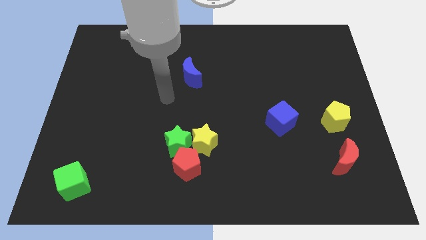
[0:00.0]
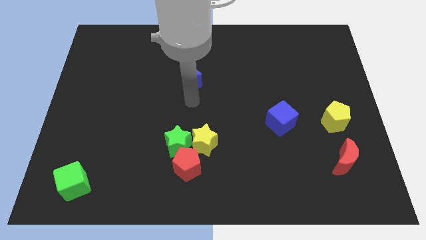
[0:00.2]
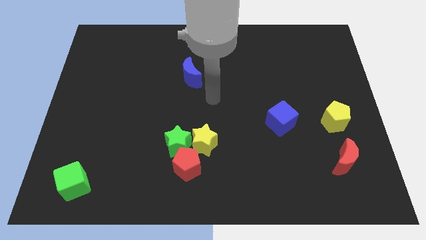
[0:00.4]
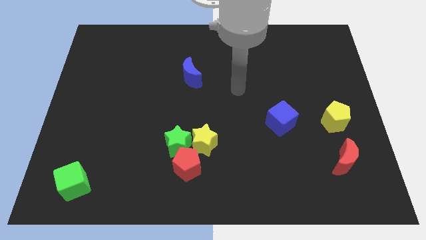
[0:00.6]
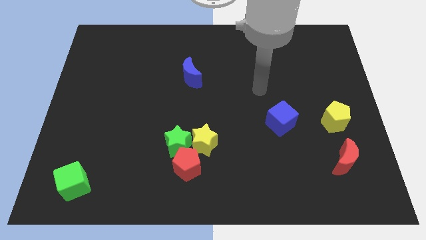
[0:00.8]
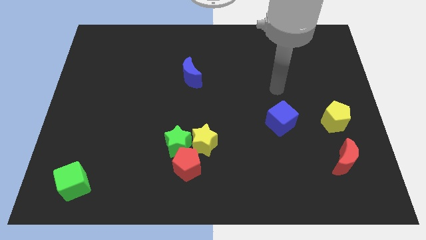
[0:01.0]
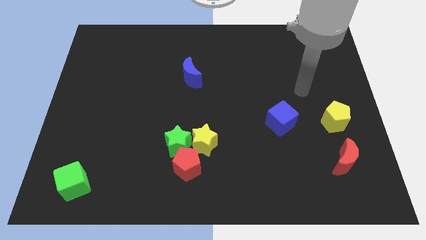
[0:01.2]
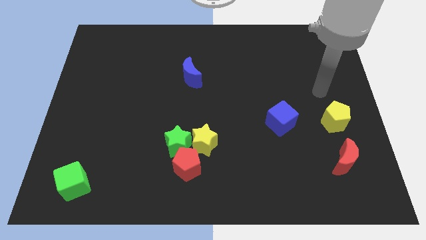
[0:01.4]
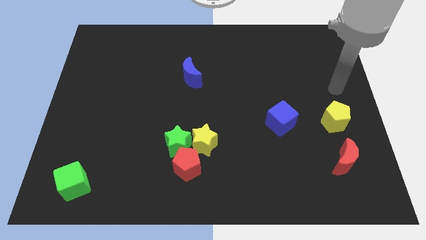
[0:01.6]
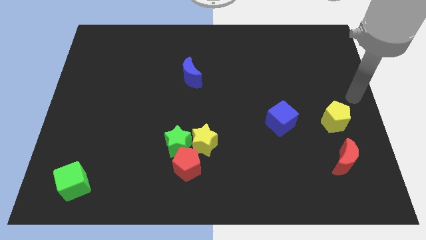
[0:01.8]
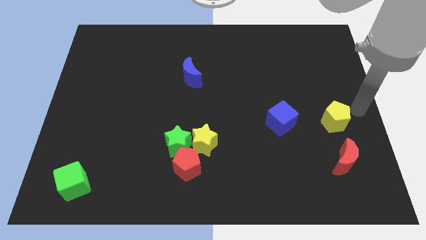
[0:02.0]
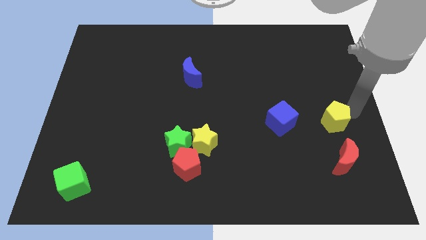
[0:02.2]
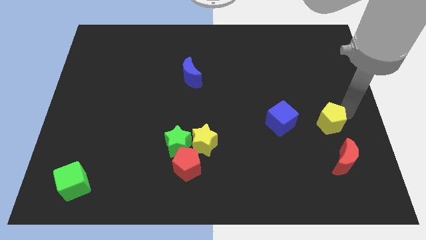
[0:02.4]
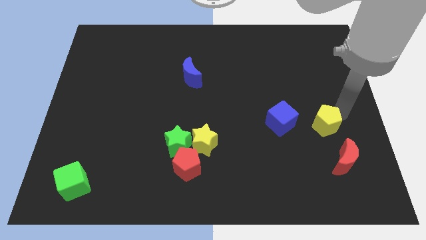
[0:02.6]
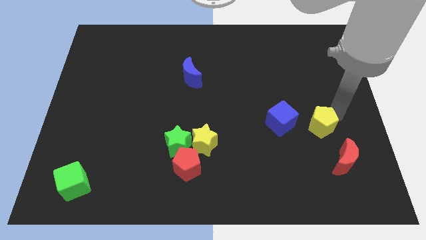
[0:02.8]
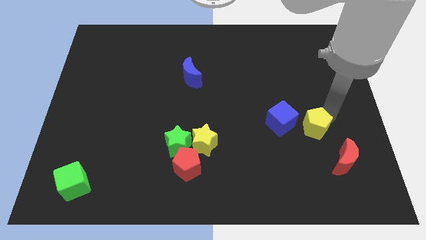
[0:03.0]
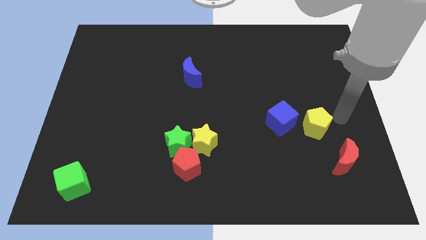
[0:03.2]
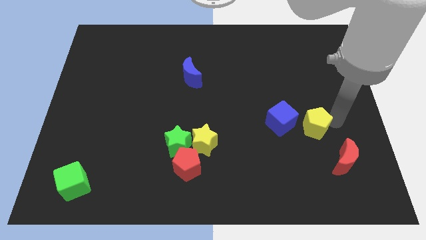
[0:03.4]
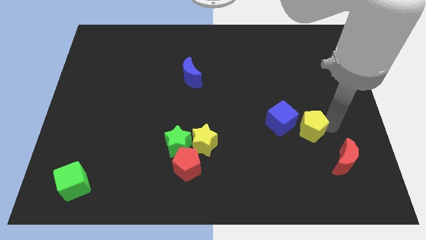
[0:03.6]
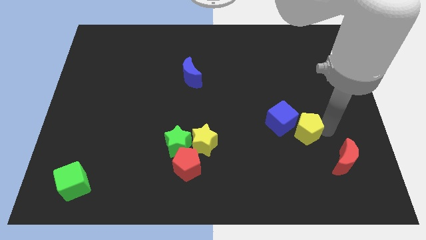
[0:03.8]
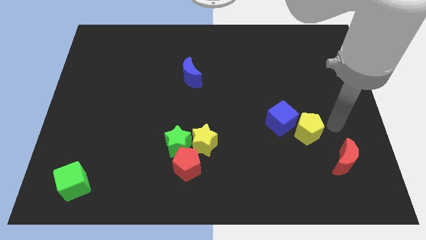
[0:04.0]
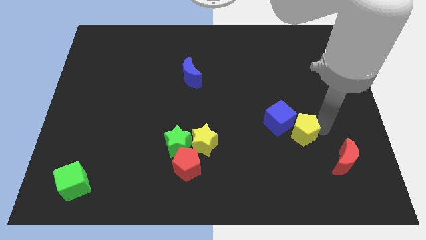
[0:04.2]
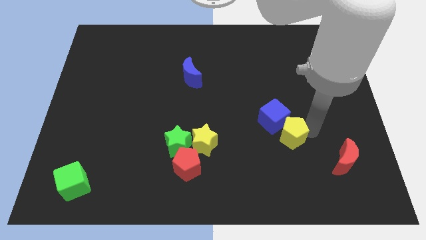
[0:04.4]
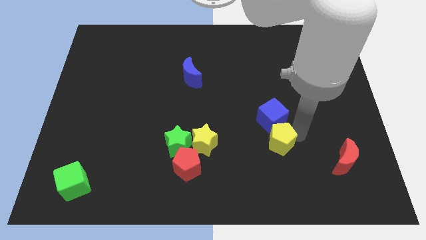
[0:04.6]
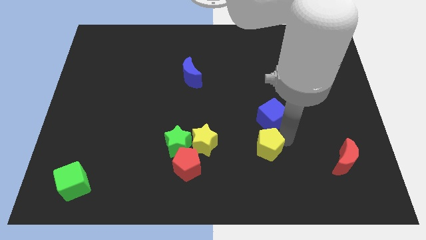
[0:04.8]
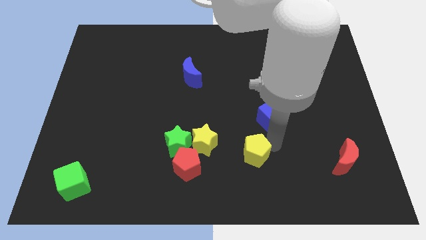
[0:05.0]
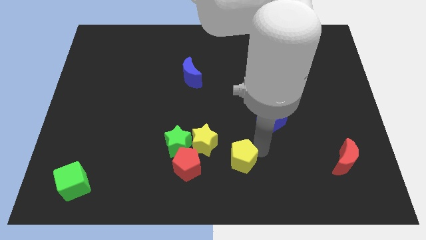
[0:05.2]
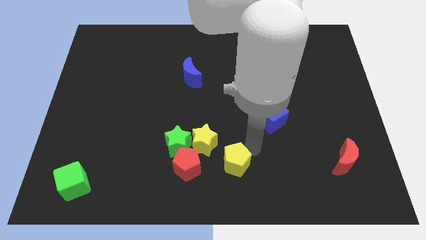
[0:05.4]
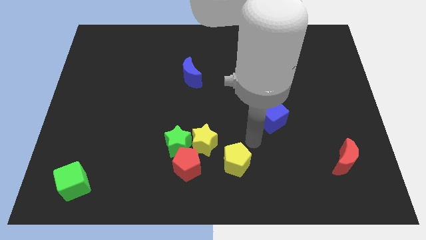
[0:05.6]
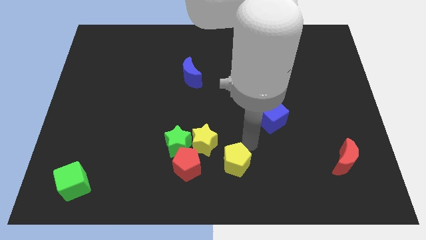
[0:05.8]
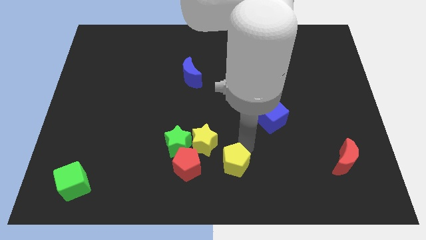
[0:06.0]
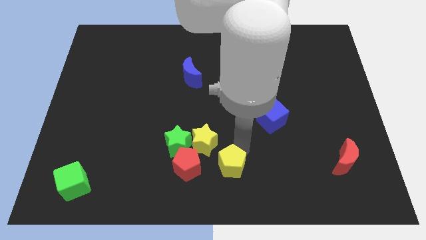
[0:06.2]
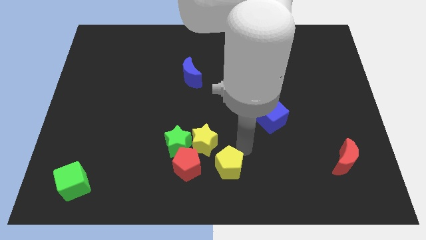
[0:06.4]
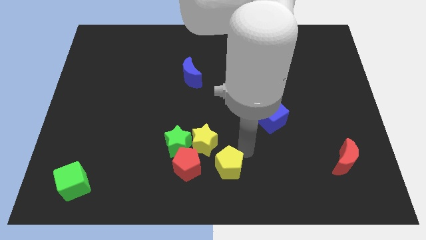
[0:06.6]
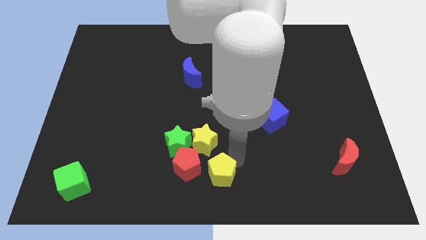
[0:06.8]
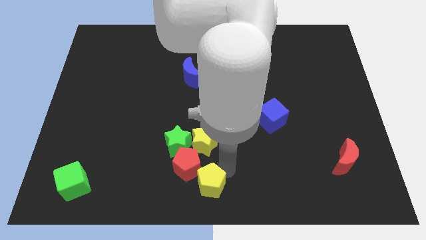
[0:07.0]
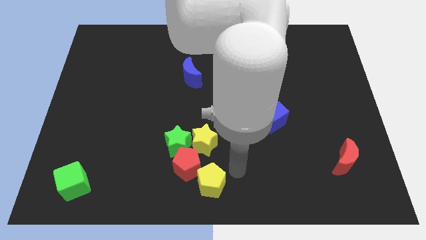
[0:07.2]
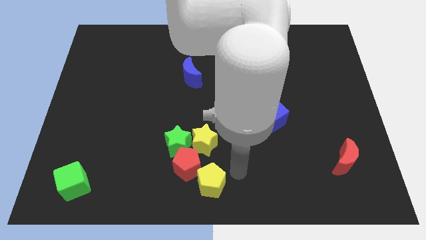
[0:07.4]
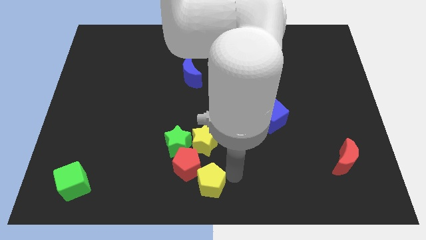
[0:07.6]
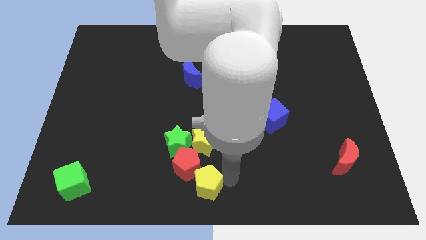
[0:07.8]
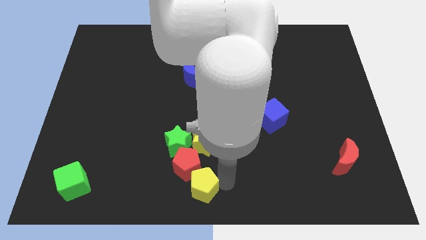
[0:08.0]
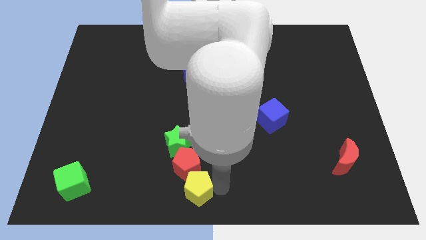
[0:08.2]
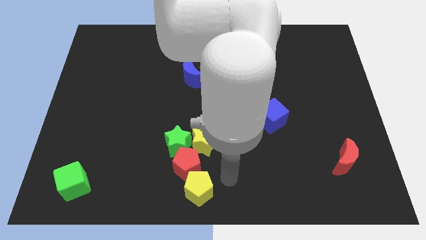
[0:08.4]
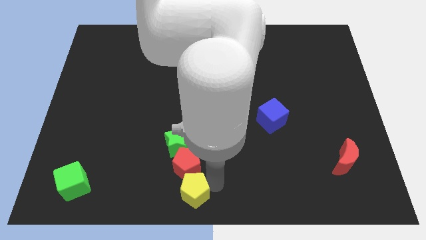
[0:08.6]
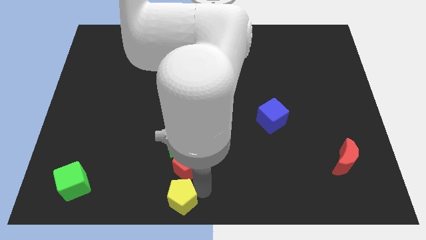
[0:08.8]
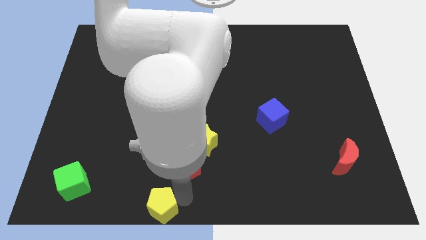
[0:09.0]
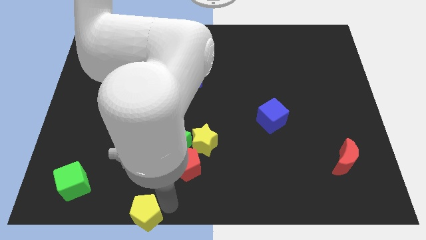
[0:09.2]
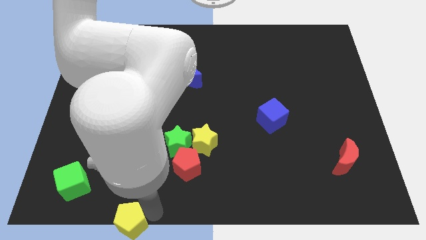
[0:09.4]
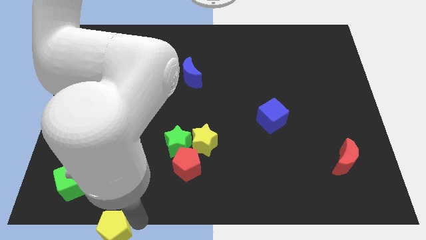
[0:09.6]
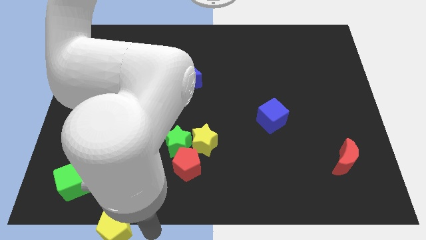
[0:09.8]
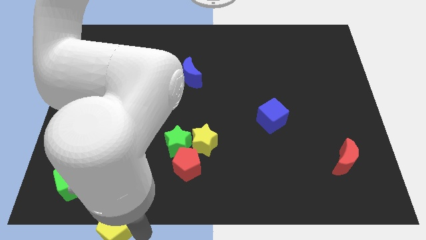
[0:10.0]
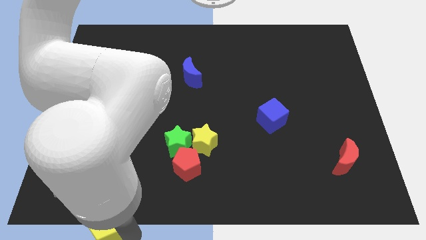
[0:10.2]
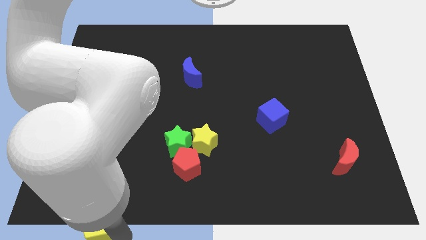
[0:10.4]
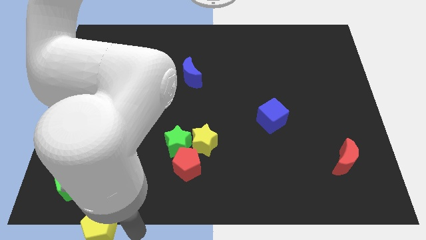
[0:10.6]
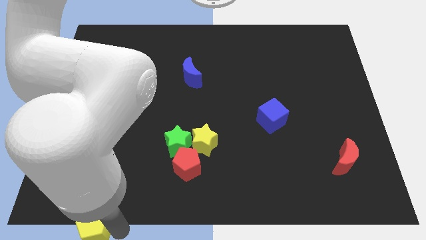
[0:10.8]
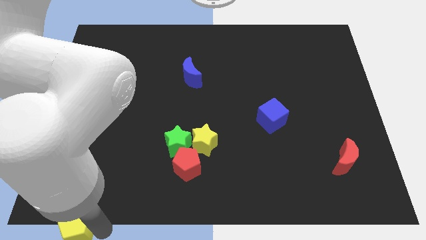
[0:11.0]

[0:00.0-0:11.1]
put the yellow pentagon to the bottom left of the board
